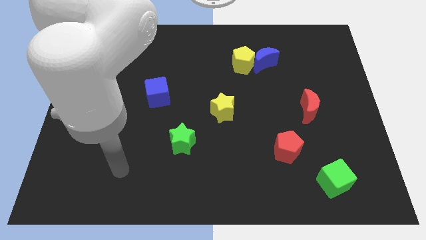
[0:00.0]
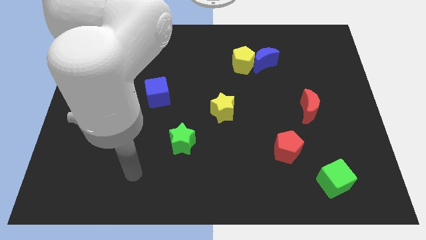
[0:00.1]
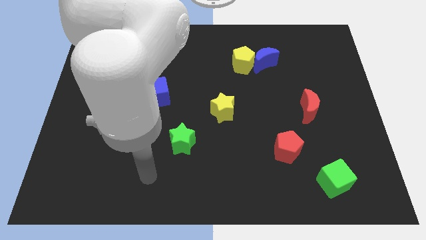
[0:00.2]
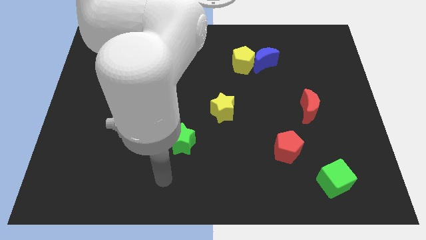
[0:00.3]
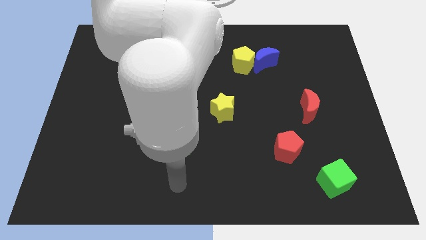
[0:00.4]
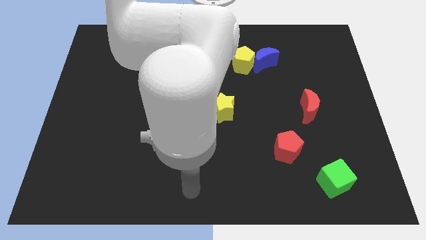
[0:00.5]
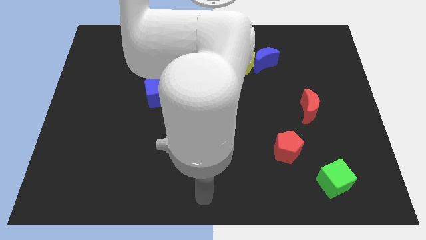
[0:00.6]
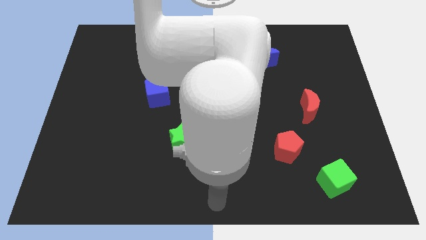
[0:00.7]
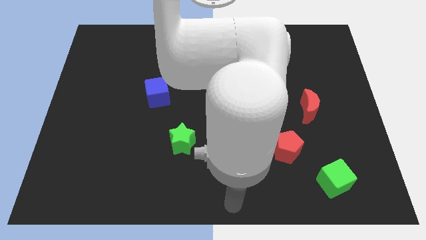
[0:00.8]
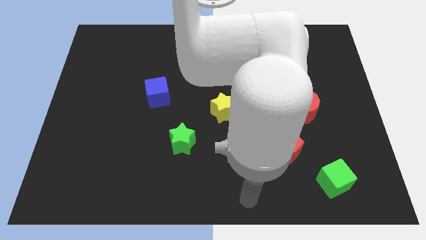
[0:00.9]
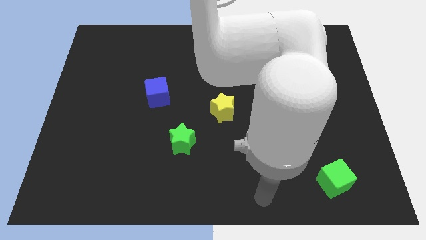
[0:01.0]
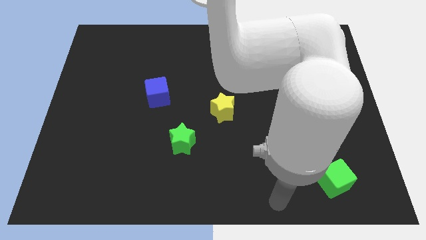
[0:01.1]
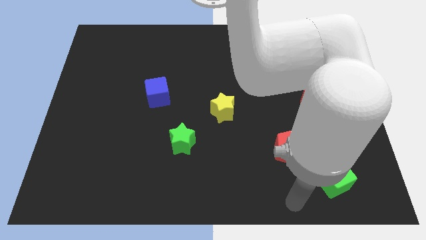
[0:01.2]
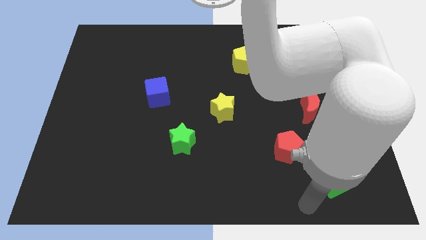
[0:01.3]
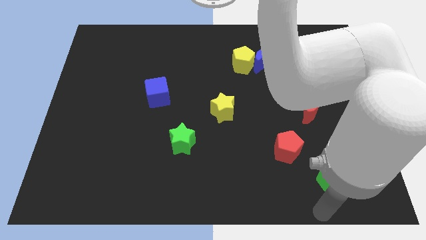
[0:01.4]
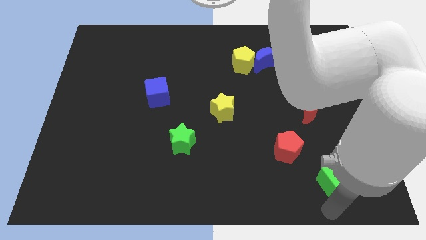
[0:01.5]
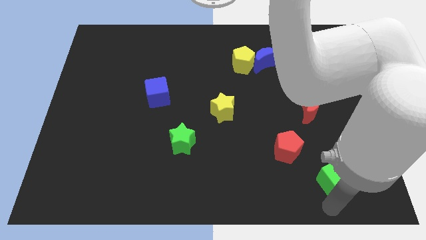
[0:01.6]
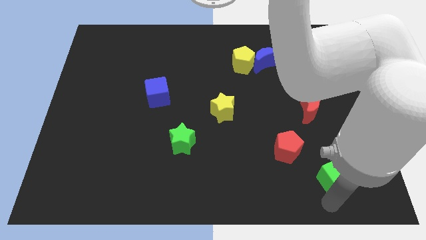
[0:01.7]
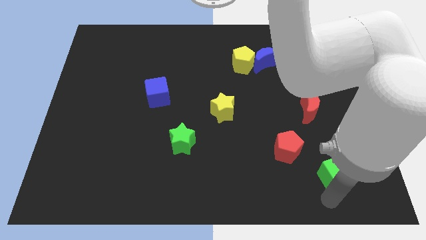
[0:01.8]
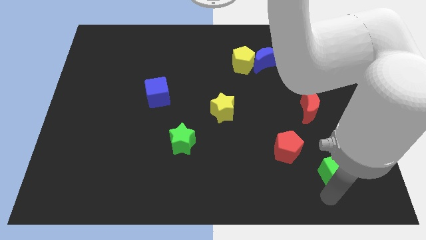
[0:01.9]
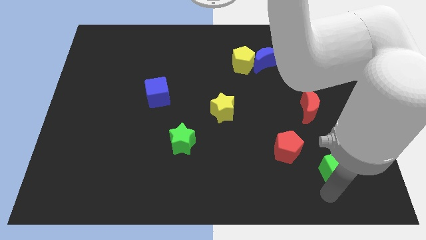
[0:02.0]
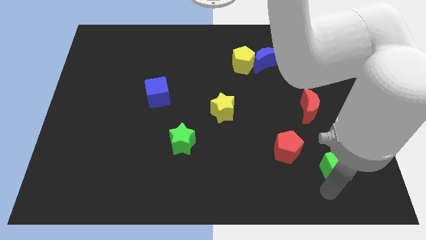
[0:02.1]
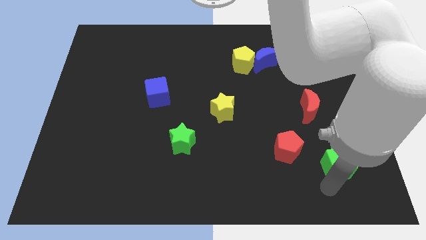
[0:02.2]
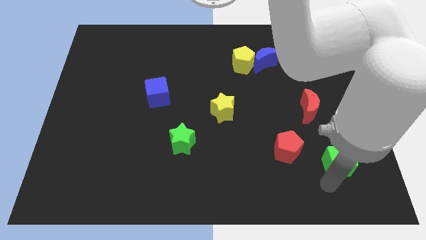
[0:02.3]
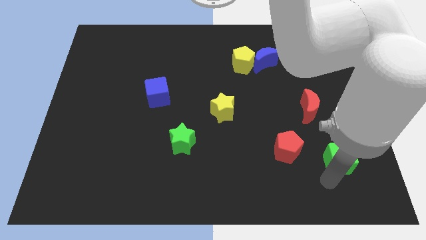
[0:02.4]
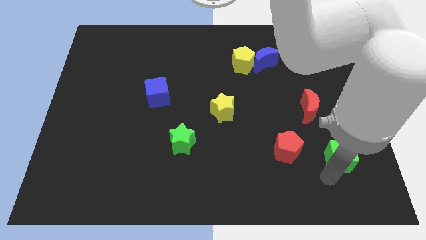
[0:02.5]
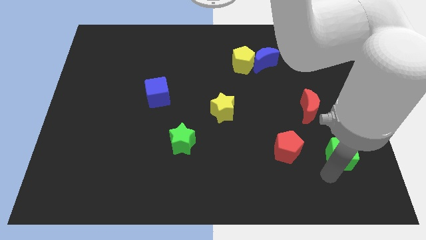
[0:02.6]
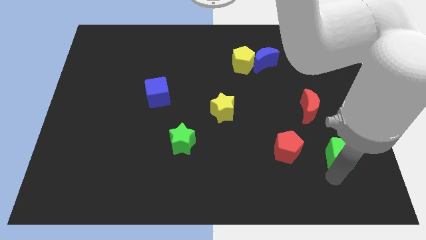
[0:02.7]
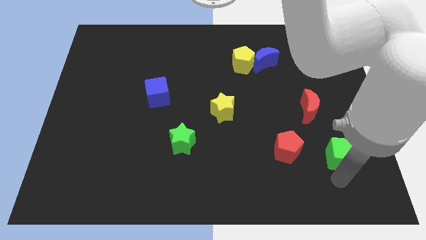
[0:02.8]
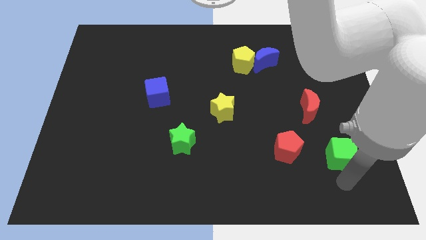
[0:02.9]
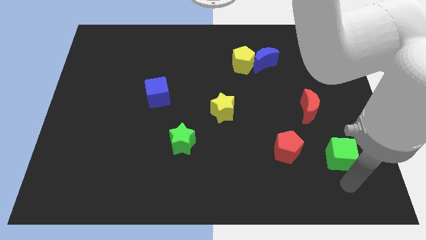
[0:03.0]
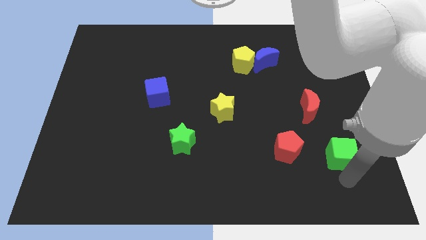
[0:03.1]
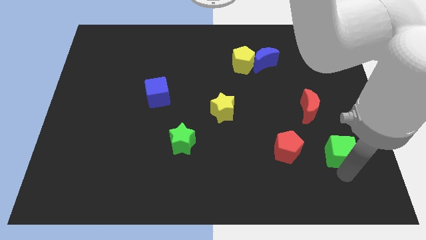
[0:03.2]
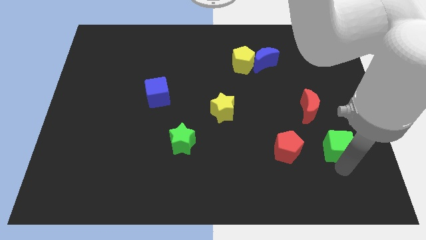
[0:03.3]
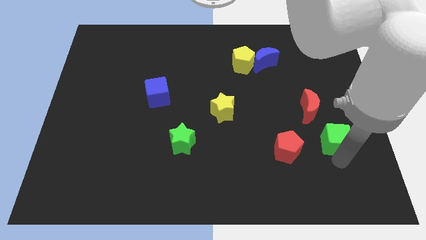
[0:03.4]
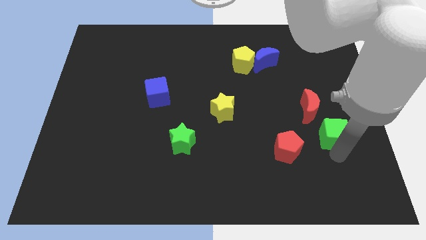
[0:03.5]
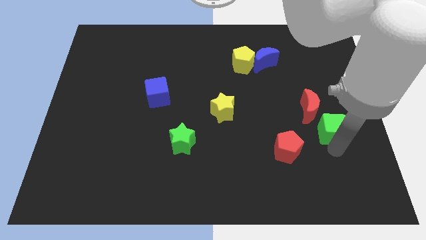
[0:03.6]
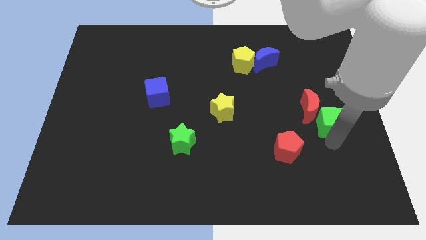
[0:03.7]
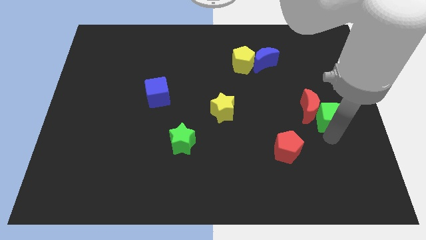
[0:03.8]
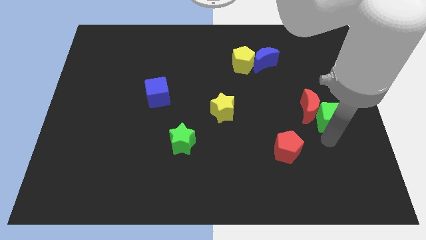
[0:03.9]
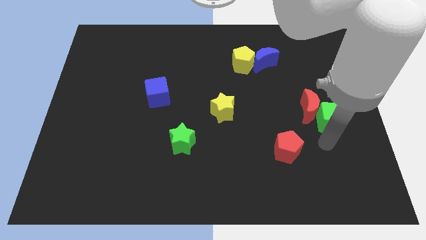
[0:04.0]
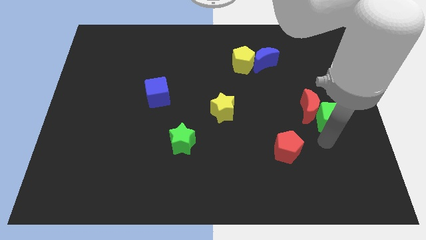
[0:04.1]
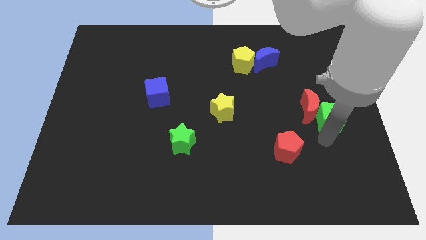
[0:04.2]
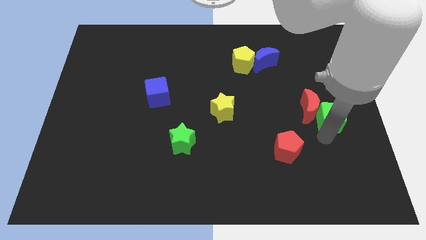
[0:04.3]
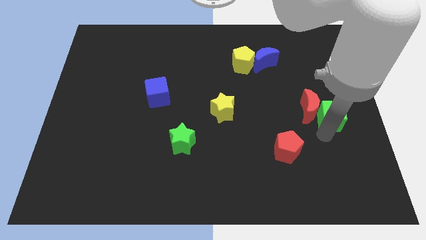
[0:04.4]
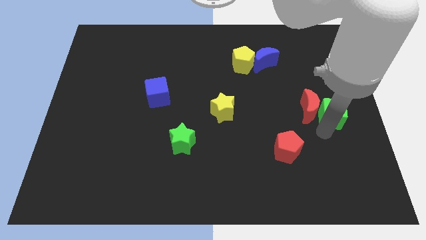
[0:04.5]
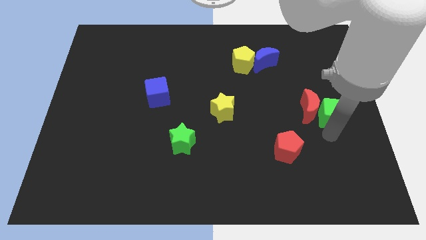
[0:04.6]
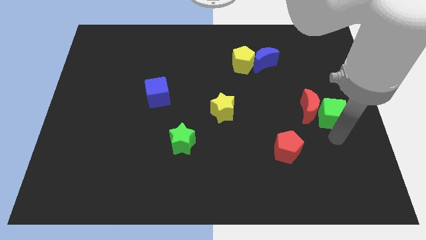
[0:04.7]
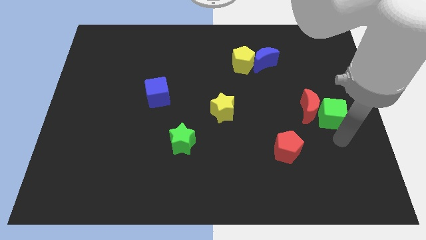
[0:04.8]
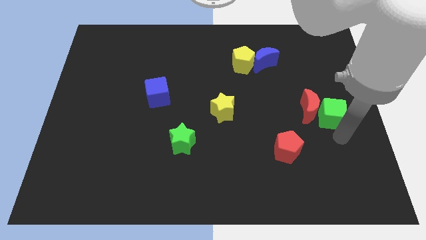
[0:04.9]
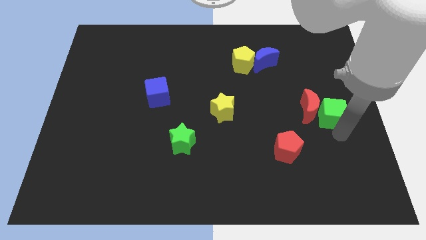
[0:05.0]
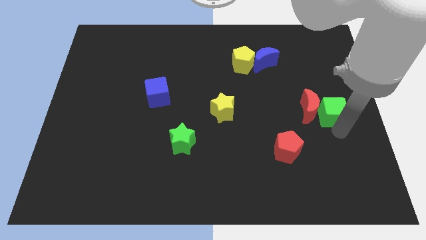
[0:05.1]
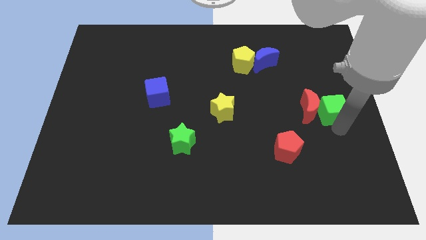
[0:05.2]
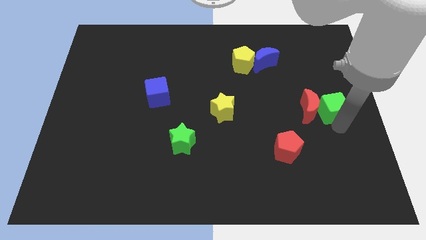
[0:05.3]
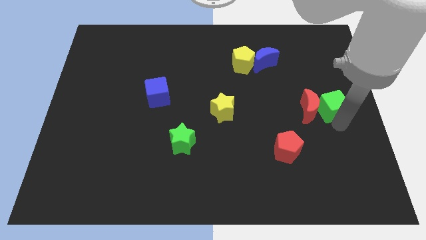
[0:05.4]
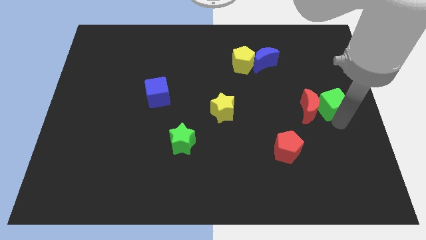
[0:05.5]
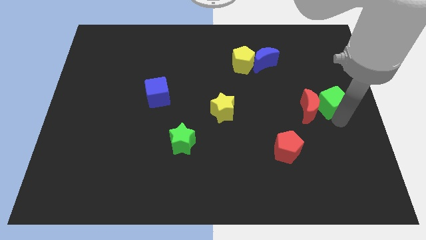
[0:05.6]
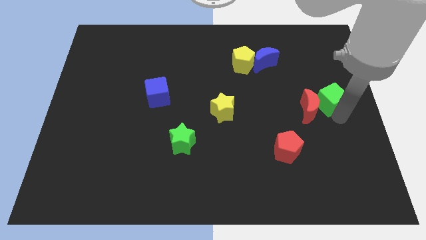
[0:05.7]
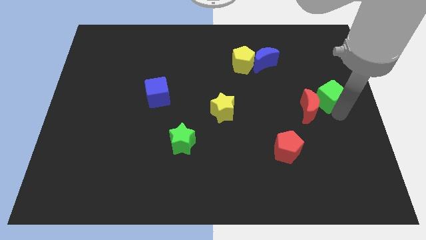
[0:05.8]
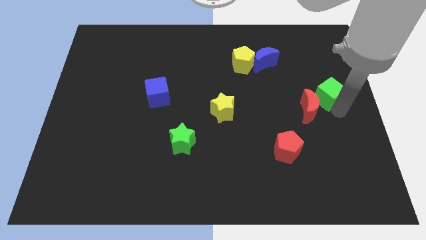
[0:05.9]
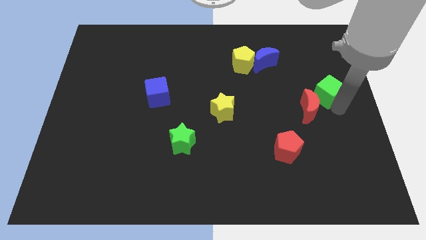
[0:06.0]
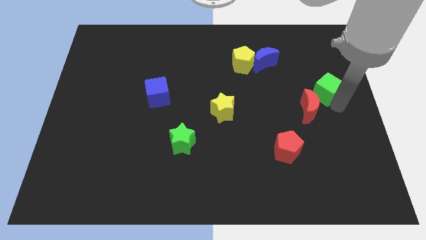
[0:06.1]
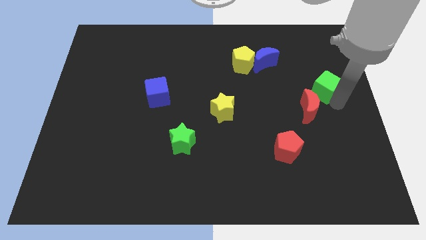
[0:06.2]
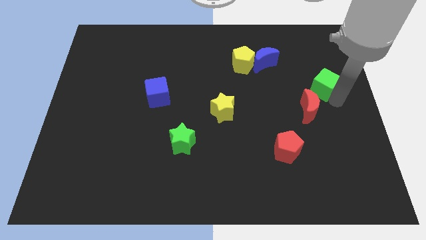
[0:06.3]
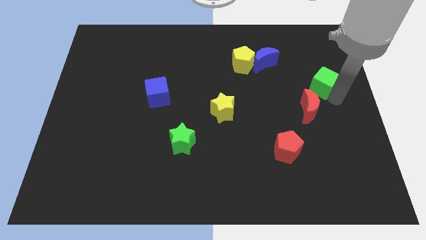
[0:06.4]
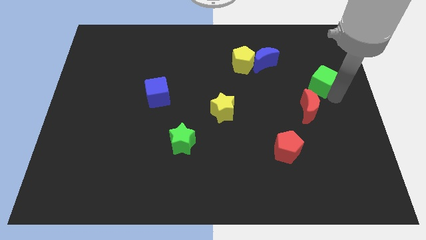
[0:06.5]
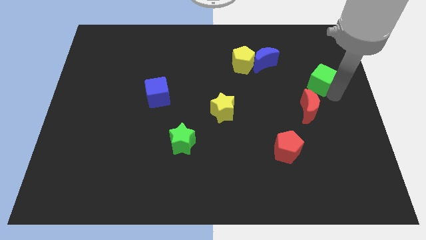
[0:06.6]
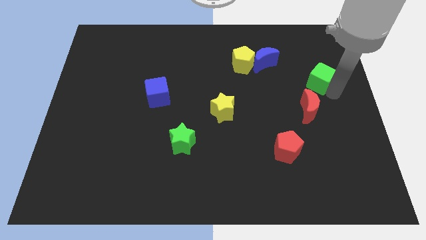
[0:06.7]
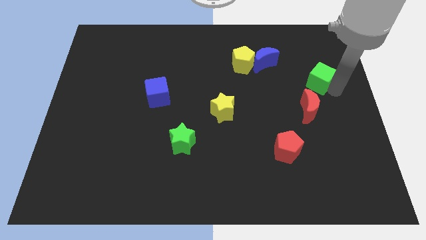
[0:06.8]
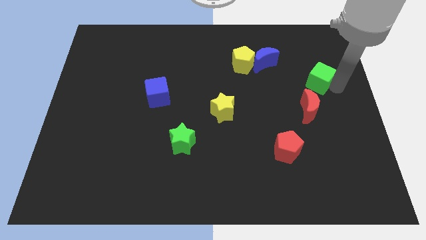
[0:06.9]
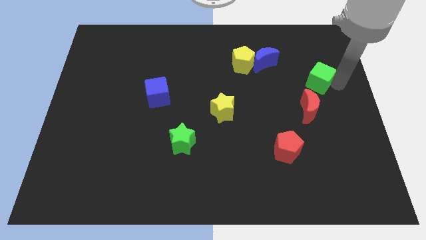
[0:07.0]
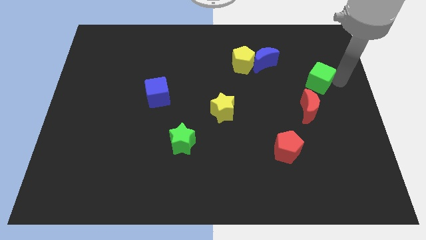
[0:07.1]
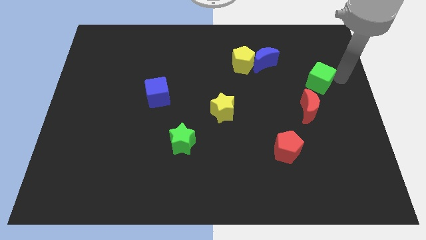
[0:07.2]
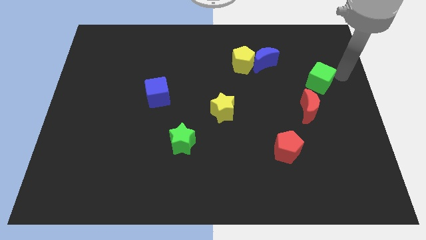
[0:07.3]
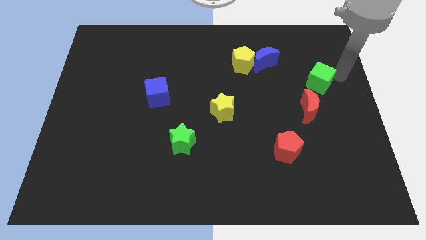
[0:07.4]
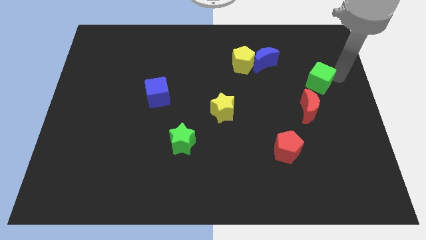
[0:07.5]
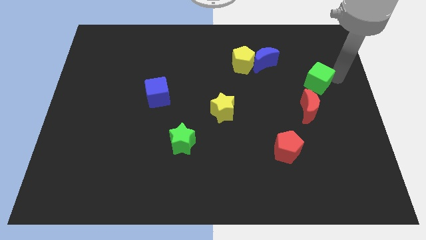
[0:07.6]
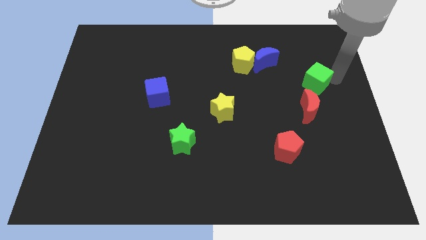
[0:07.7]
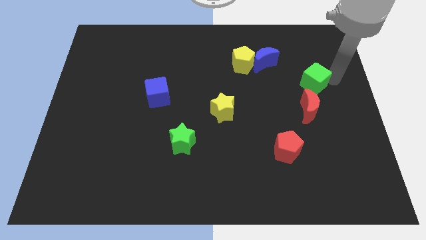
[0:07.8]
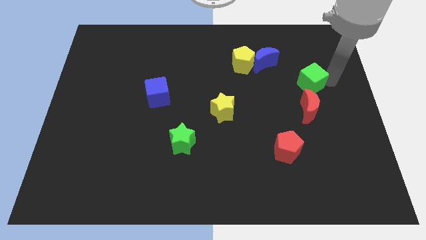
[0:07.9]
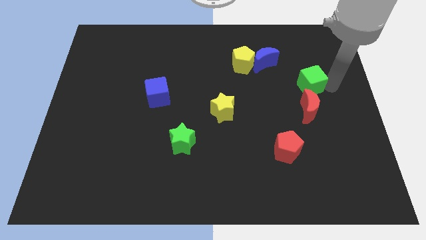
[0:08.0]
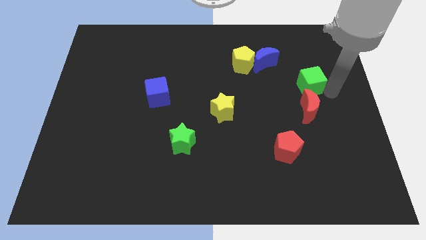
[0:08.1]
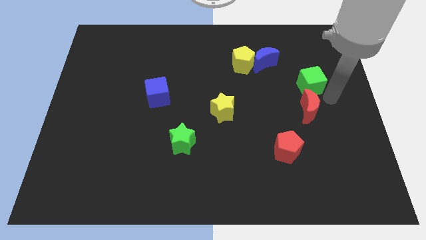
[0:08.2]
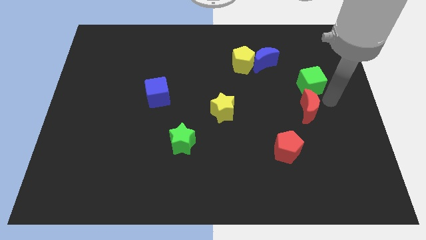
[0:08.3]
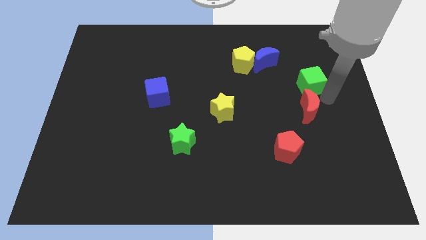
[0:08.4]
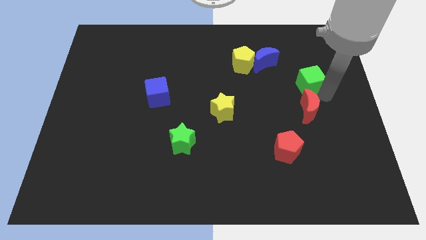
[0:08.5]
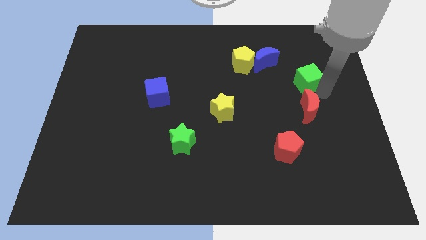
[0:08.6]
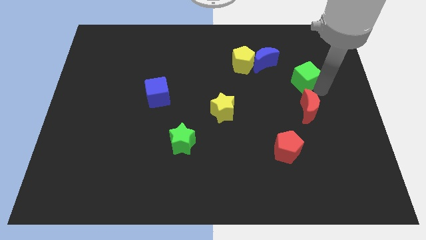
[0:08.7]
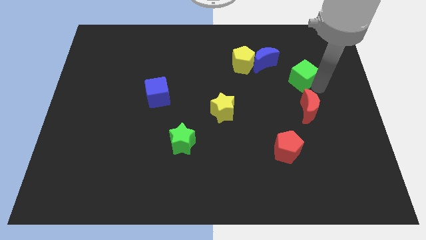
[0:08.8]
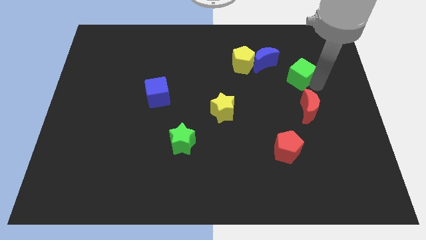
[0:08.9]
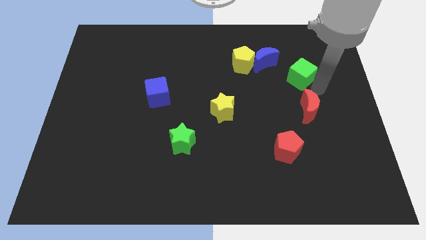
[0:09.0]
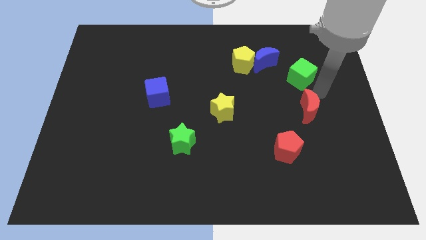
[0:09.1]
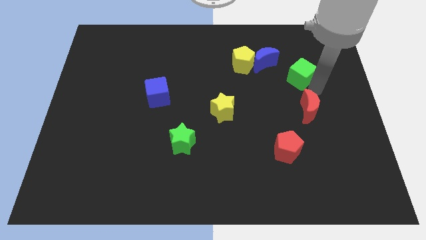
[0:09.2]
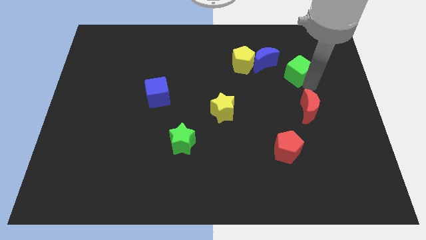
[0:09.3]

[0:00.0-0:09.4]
put the green cube to the right of the yellow pentagon
